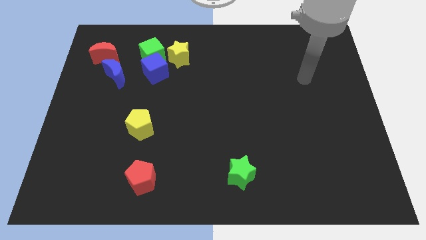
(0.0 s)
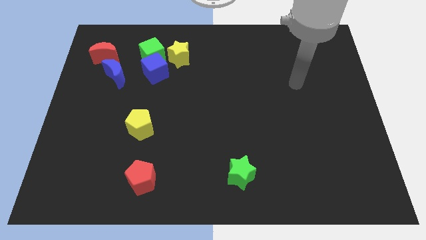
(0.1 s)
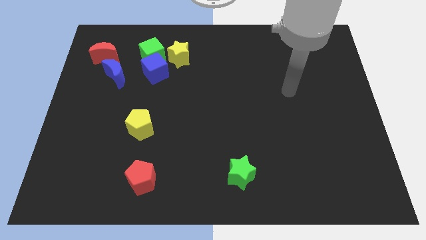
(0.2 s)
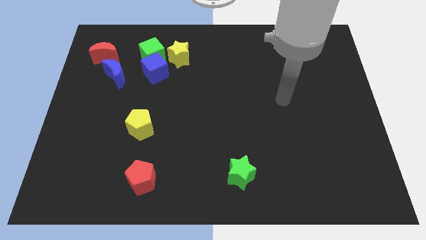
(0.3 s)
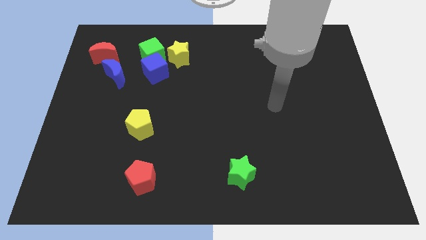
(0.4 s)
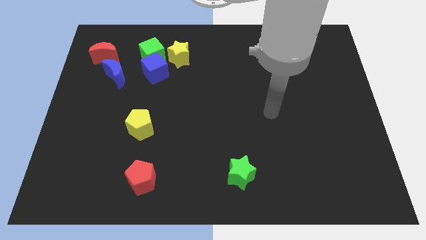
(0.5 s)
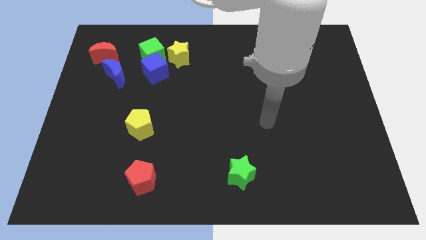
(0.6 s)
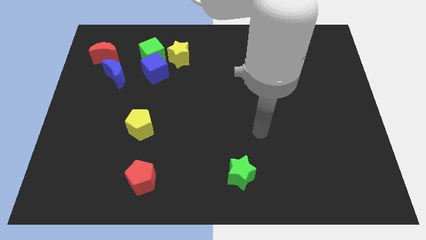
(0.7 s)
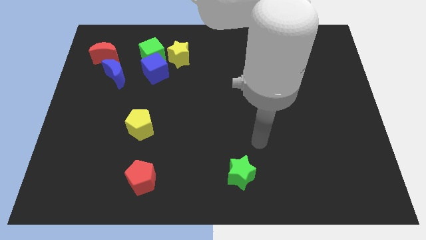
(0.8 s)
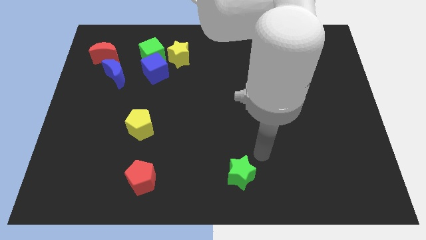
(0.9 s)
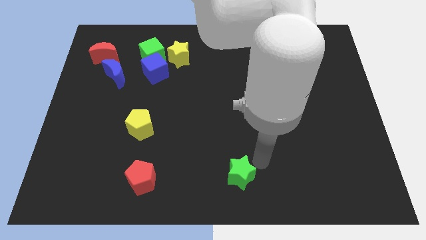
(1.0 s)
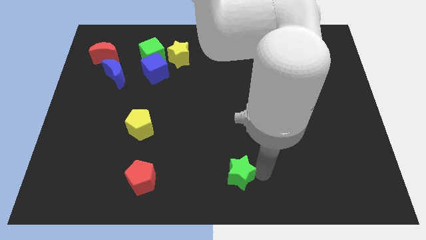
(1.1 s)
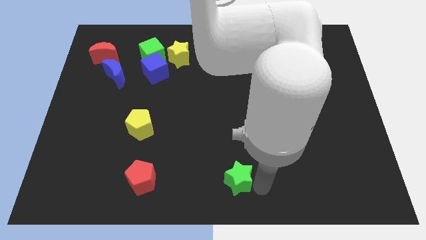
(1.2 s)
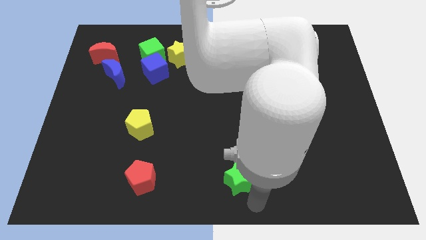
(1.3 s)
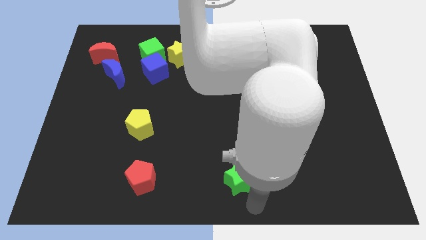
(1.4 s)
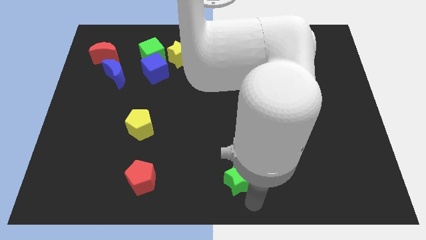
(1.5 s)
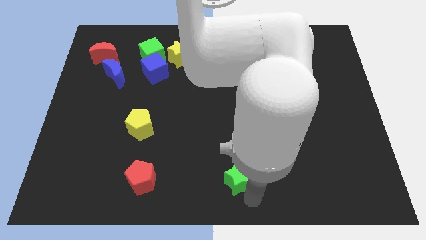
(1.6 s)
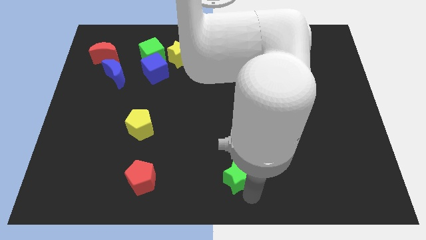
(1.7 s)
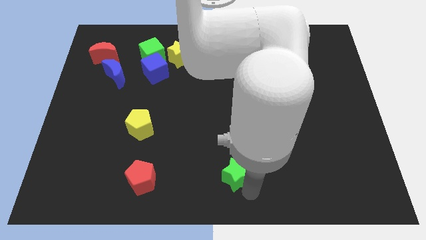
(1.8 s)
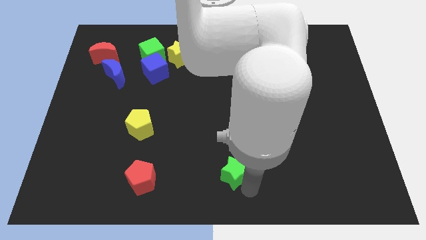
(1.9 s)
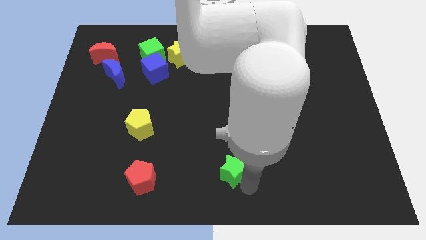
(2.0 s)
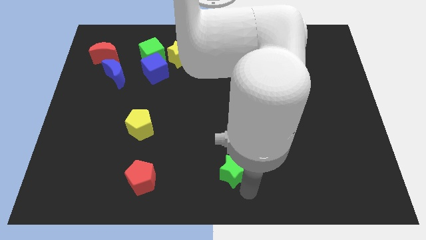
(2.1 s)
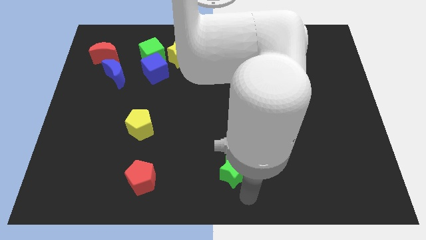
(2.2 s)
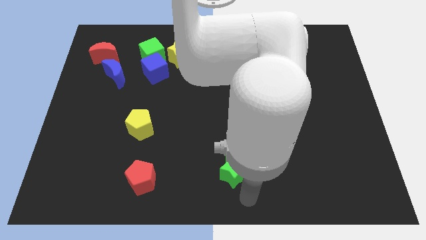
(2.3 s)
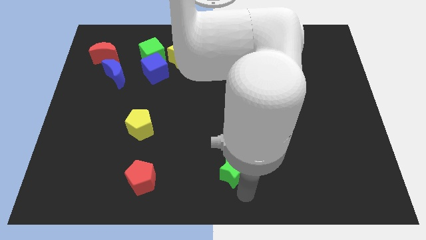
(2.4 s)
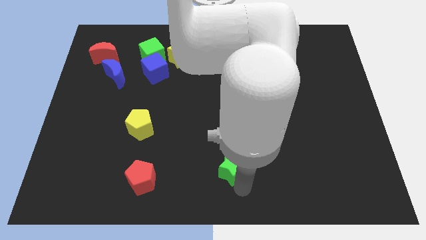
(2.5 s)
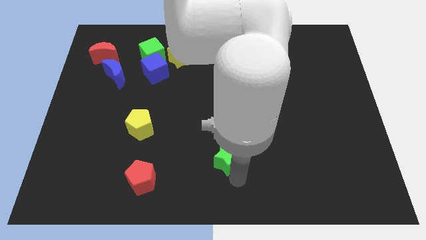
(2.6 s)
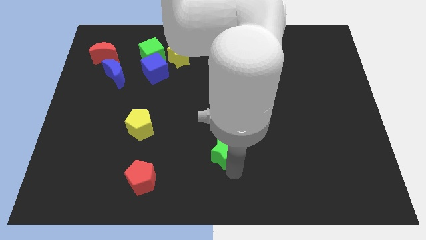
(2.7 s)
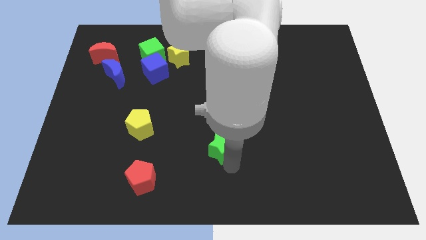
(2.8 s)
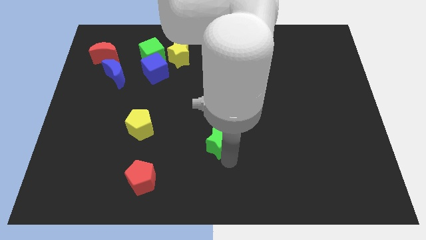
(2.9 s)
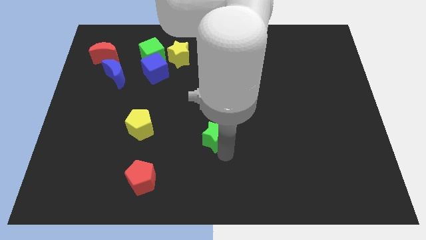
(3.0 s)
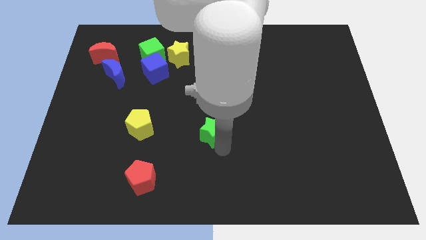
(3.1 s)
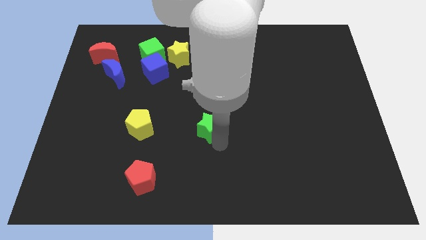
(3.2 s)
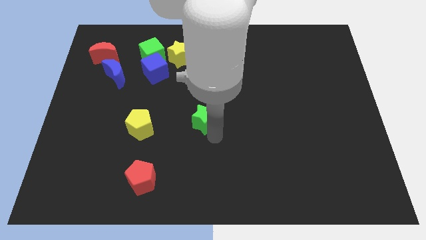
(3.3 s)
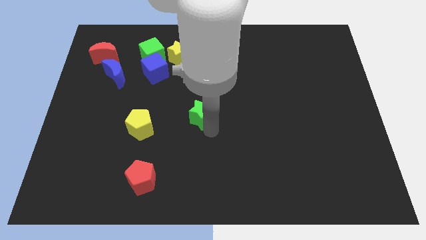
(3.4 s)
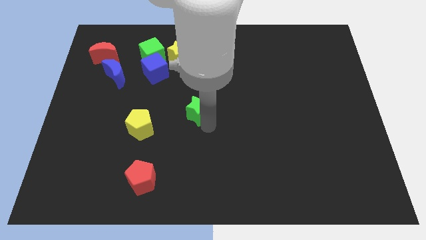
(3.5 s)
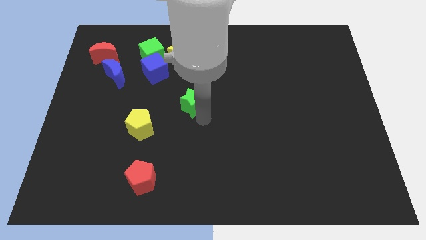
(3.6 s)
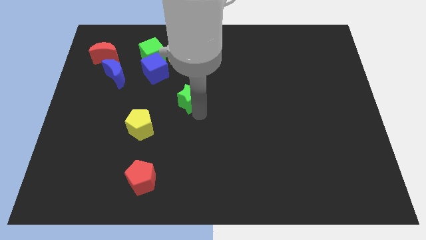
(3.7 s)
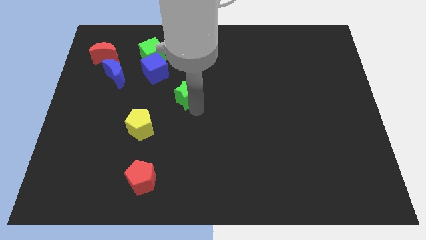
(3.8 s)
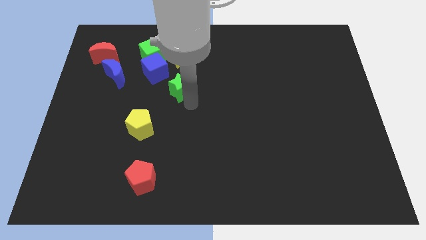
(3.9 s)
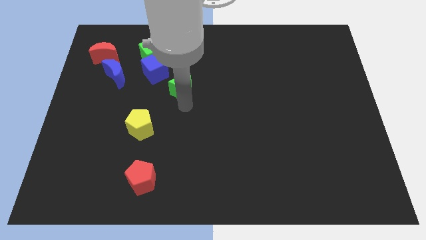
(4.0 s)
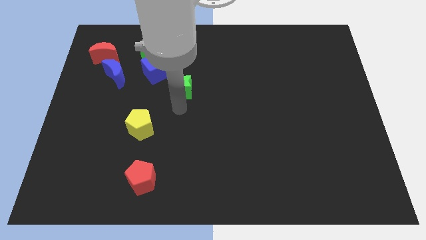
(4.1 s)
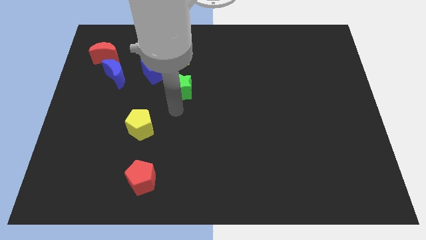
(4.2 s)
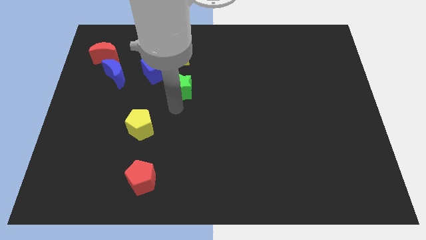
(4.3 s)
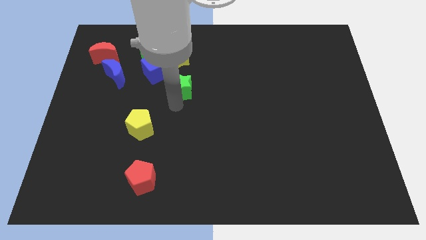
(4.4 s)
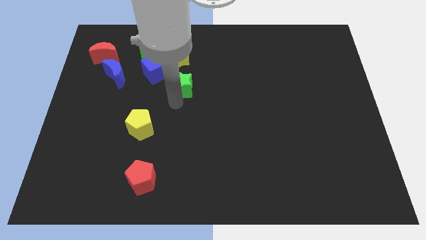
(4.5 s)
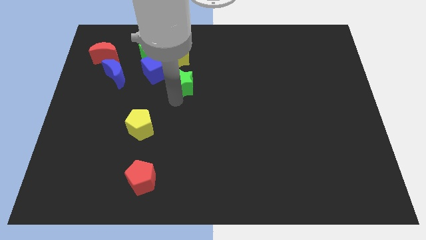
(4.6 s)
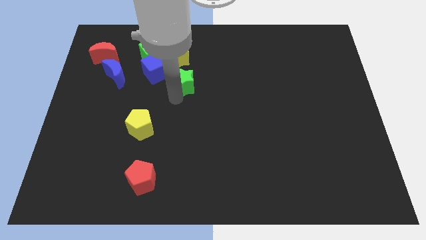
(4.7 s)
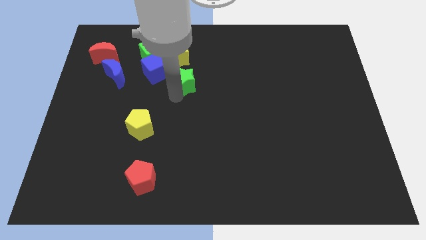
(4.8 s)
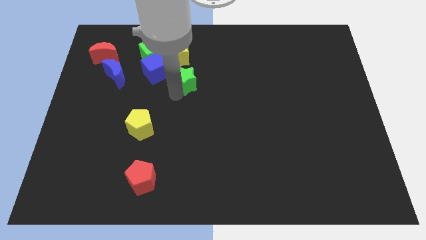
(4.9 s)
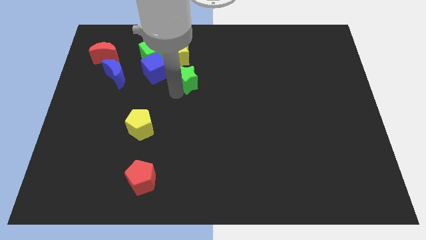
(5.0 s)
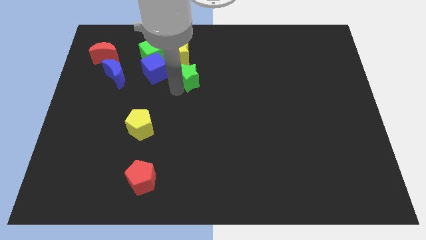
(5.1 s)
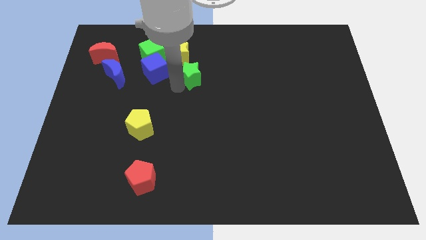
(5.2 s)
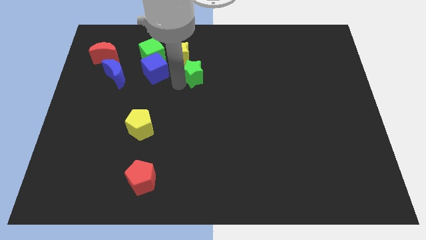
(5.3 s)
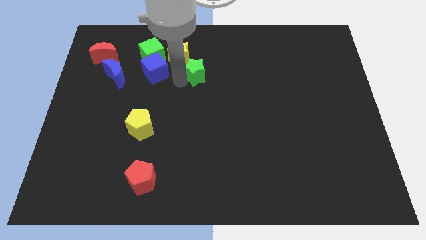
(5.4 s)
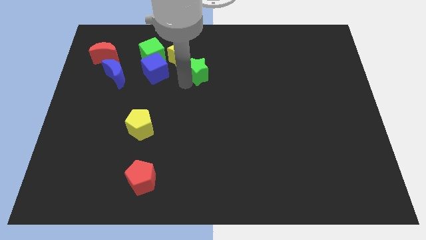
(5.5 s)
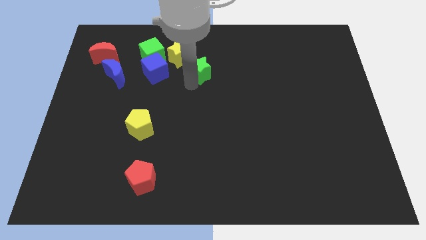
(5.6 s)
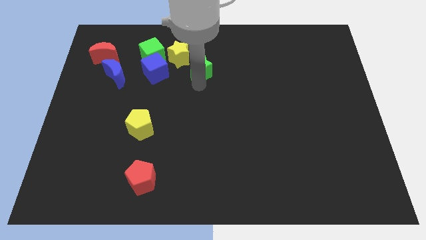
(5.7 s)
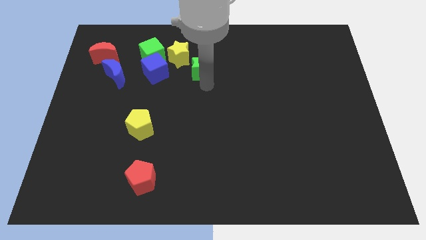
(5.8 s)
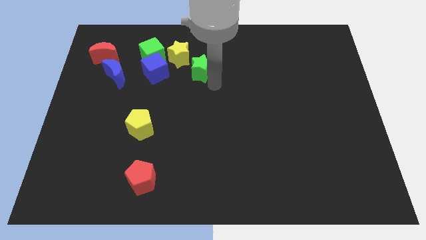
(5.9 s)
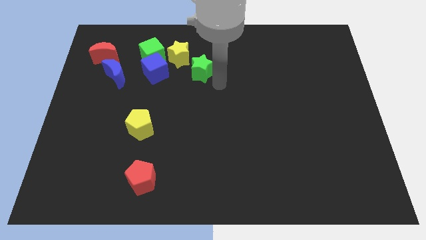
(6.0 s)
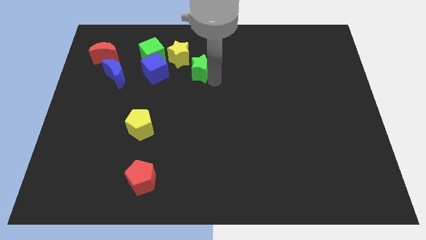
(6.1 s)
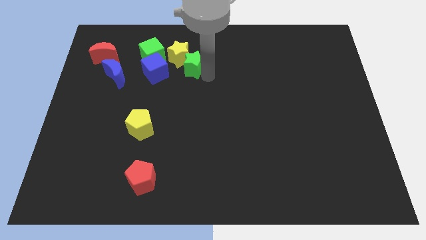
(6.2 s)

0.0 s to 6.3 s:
slide the green star close to the yellow star
